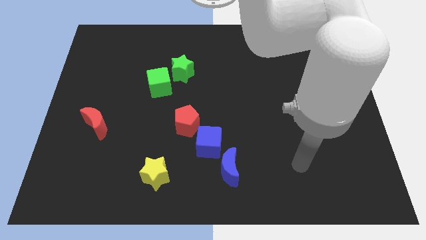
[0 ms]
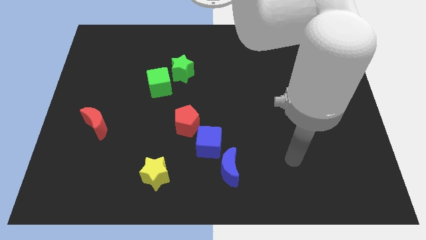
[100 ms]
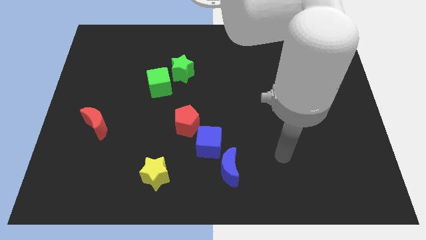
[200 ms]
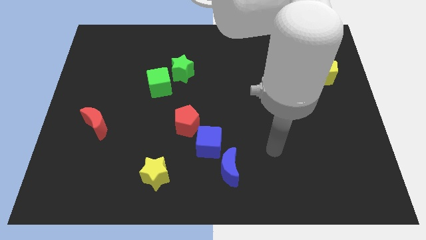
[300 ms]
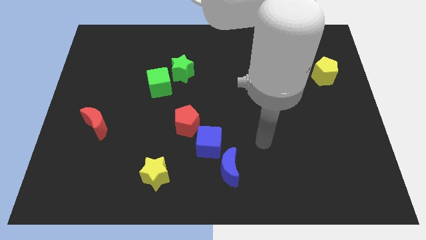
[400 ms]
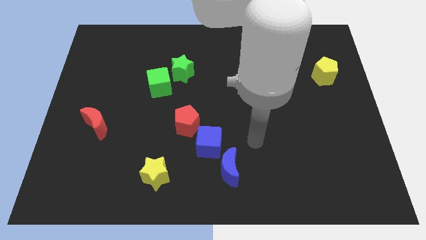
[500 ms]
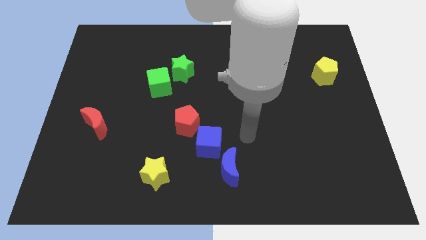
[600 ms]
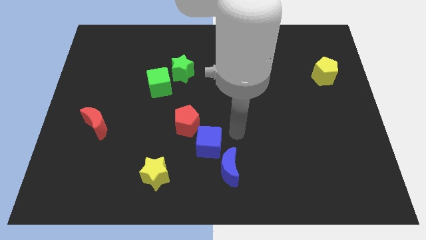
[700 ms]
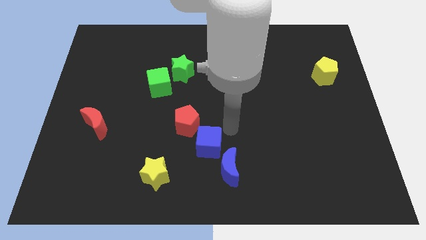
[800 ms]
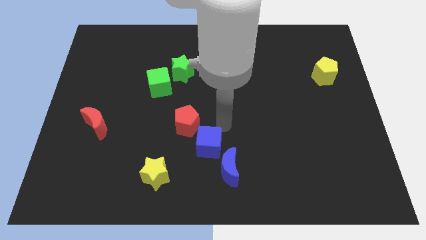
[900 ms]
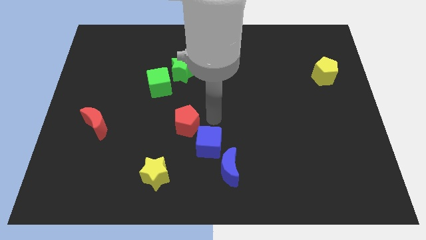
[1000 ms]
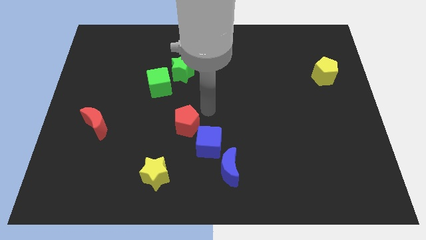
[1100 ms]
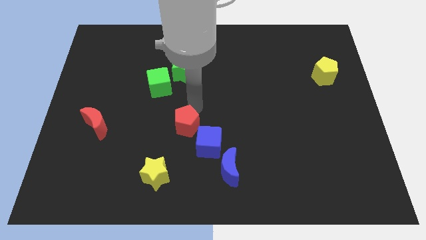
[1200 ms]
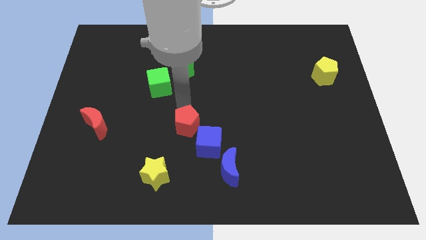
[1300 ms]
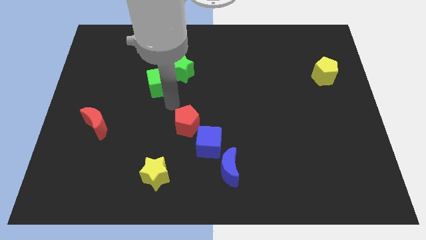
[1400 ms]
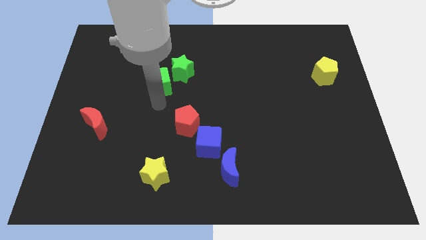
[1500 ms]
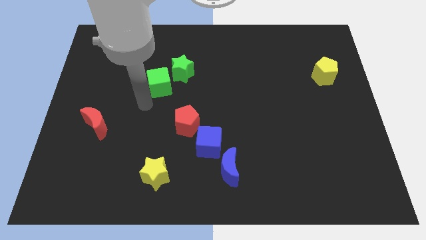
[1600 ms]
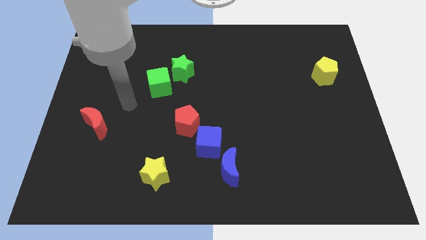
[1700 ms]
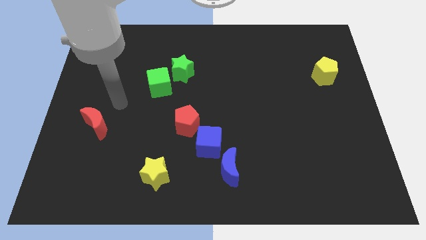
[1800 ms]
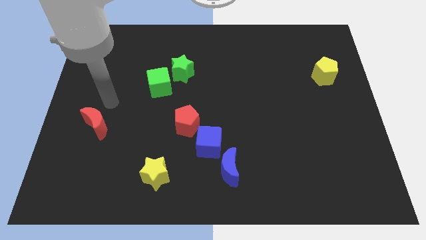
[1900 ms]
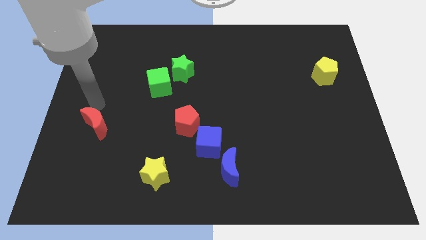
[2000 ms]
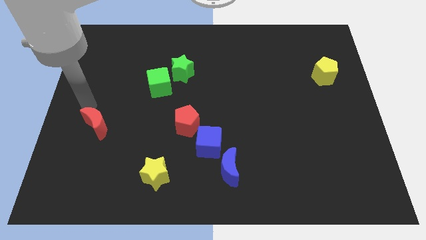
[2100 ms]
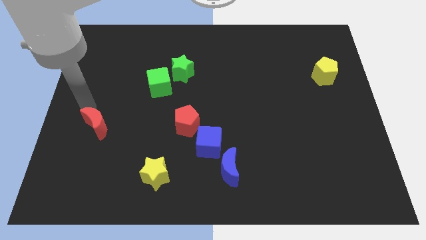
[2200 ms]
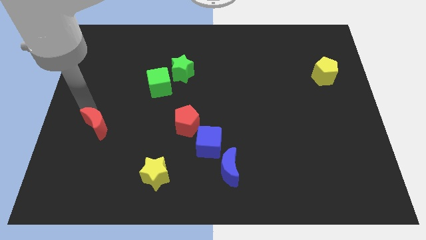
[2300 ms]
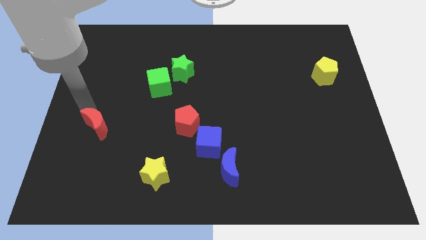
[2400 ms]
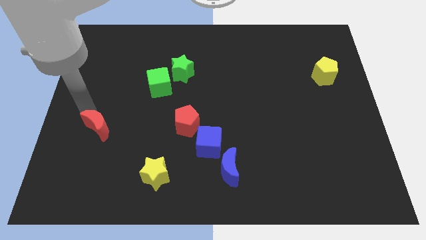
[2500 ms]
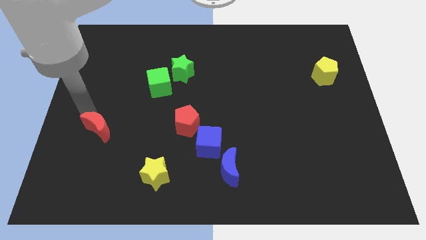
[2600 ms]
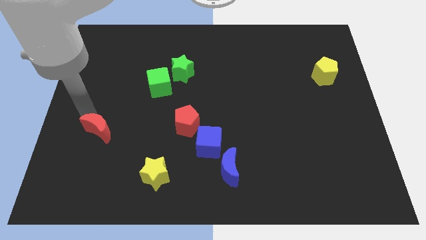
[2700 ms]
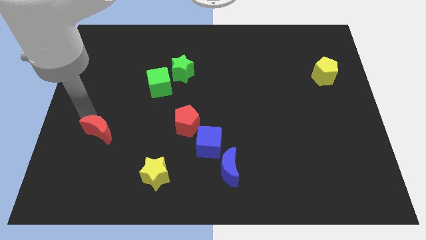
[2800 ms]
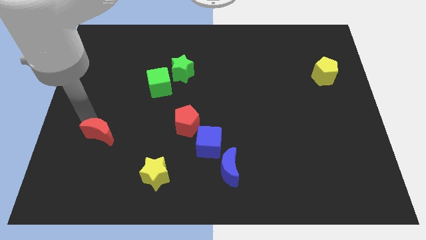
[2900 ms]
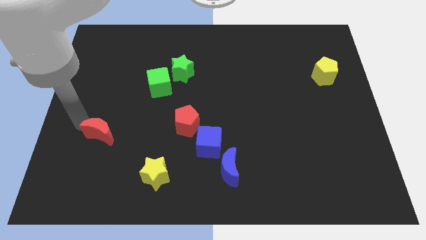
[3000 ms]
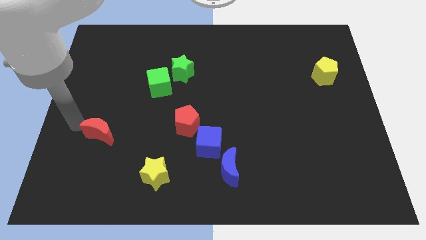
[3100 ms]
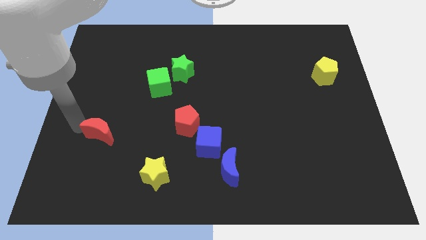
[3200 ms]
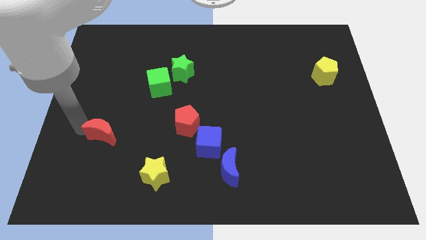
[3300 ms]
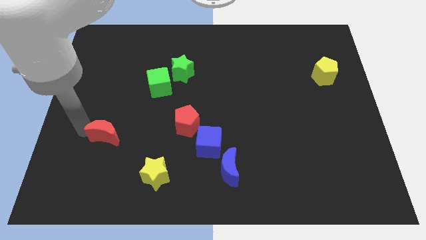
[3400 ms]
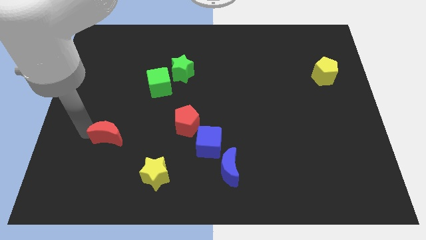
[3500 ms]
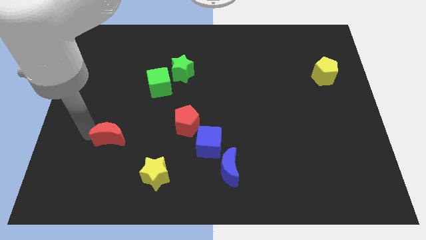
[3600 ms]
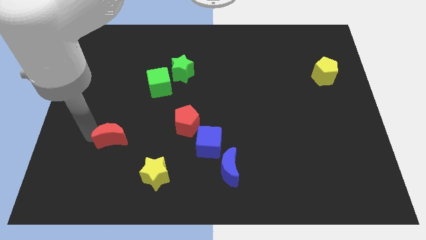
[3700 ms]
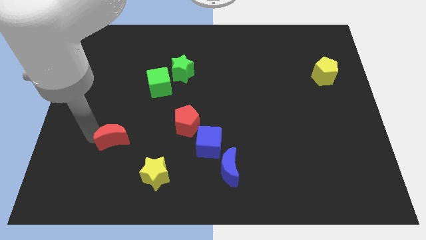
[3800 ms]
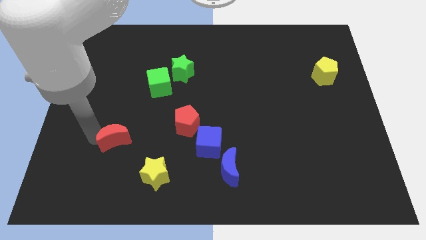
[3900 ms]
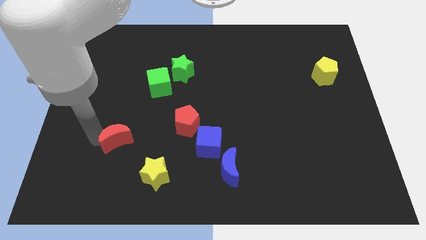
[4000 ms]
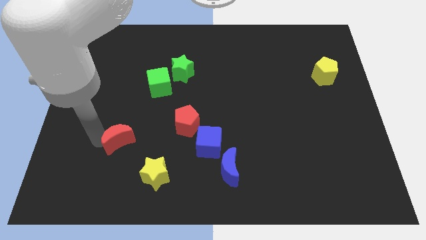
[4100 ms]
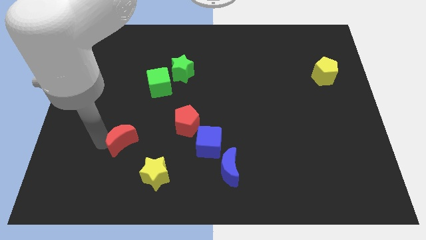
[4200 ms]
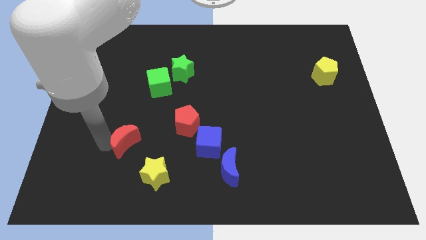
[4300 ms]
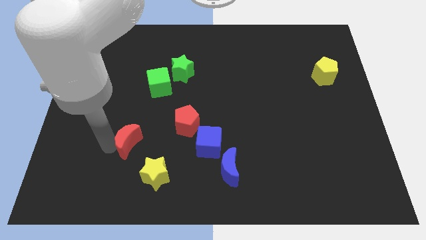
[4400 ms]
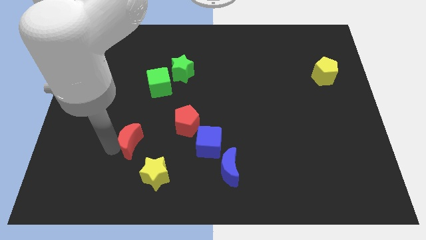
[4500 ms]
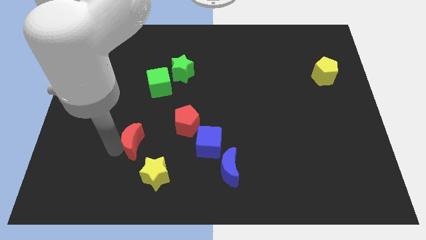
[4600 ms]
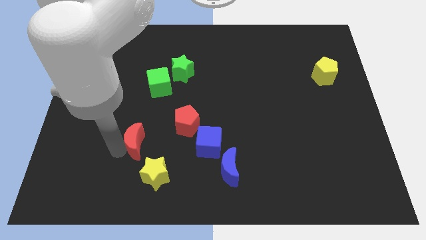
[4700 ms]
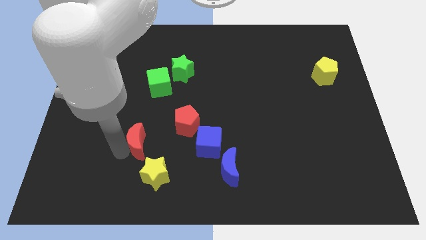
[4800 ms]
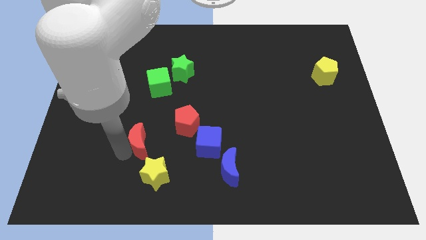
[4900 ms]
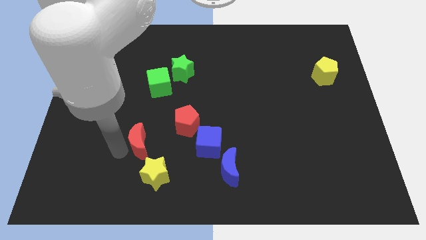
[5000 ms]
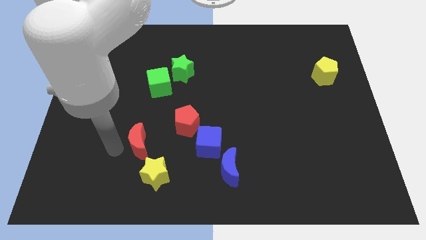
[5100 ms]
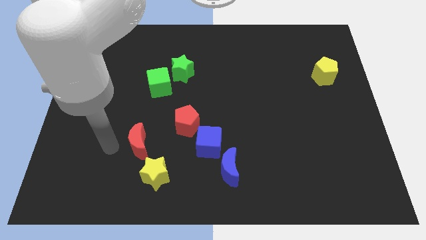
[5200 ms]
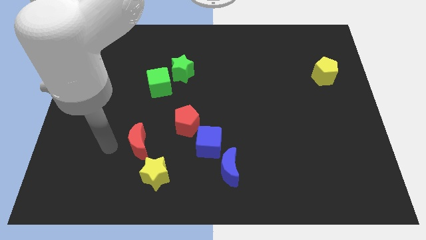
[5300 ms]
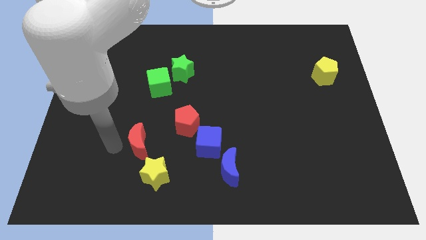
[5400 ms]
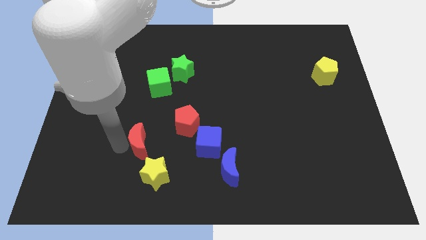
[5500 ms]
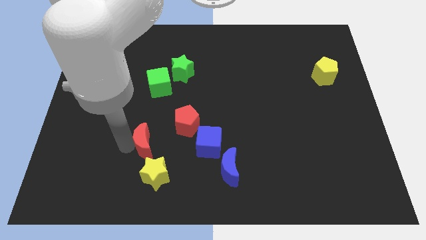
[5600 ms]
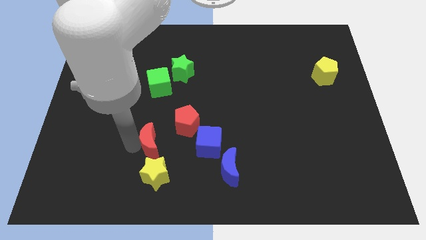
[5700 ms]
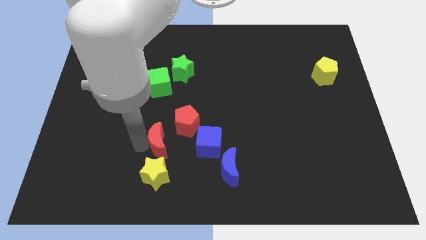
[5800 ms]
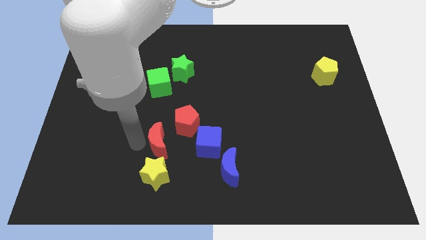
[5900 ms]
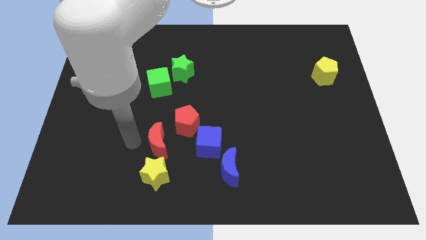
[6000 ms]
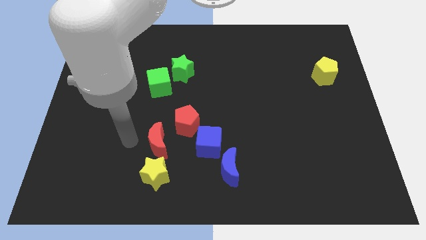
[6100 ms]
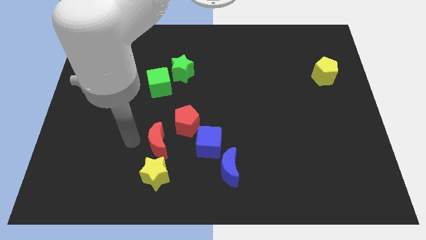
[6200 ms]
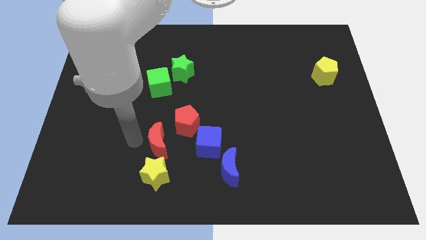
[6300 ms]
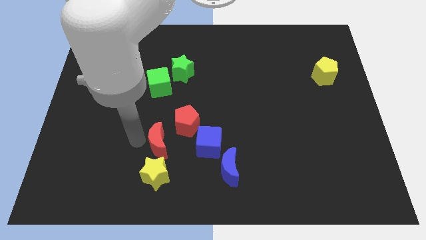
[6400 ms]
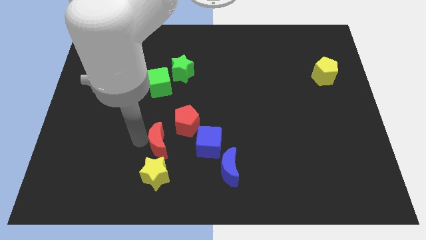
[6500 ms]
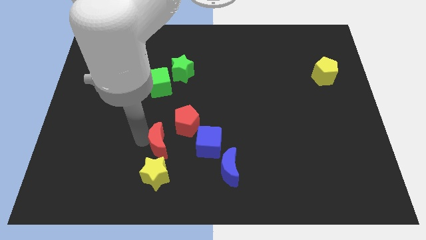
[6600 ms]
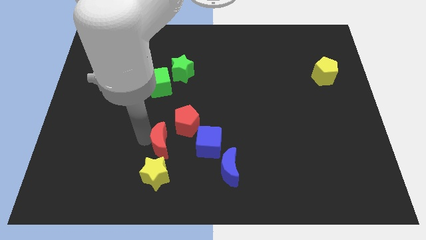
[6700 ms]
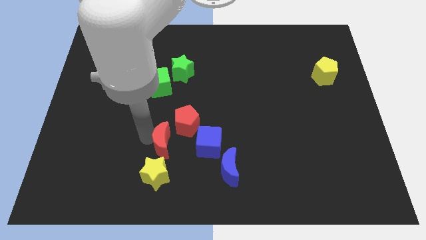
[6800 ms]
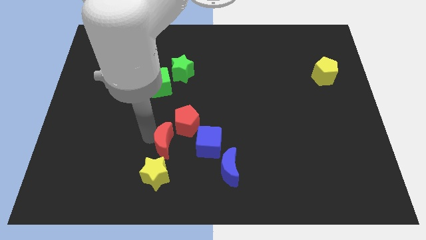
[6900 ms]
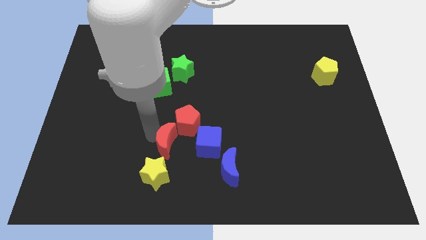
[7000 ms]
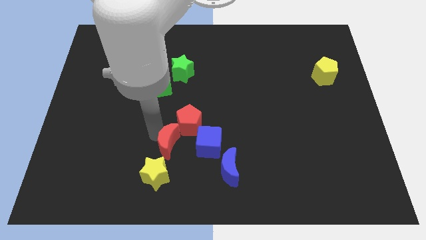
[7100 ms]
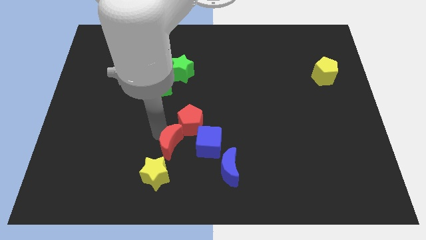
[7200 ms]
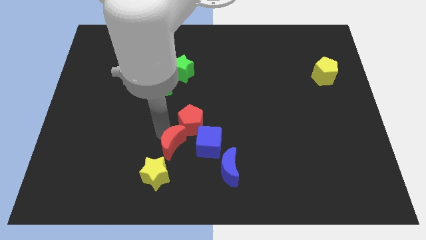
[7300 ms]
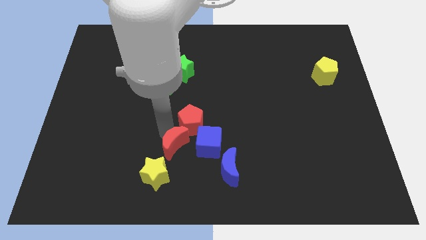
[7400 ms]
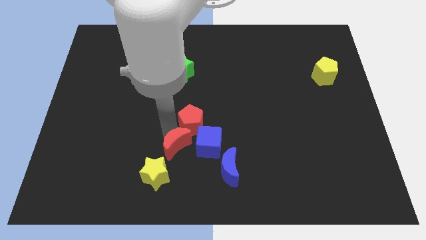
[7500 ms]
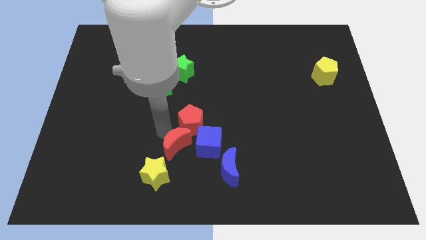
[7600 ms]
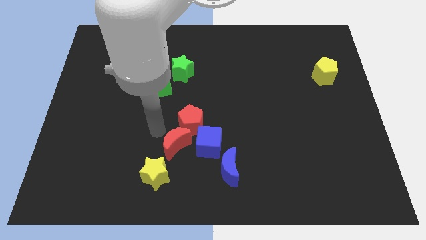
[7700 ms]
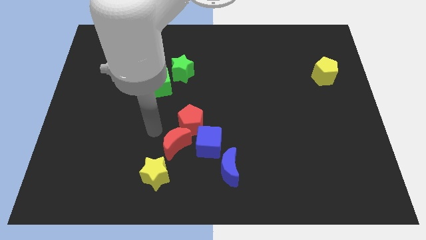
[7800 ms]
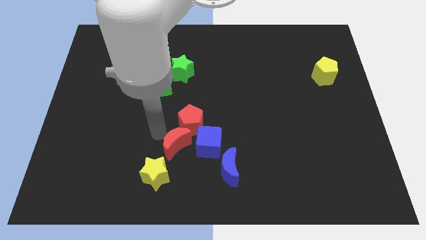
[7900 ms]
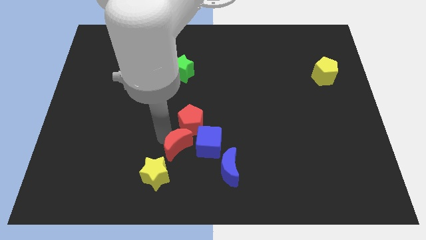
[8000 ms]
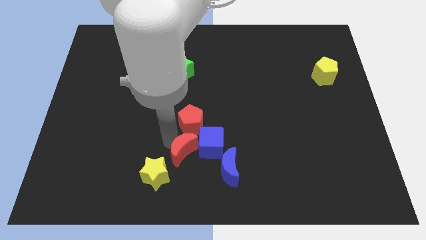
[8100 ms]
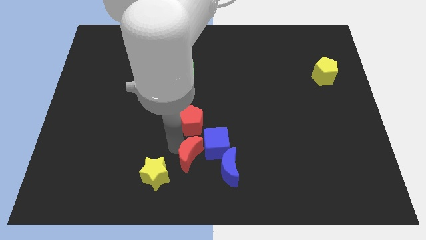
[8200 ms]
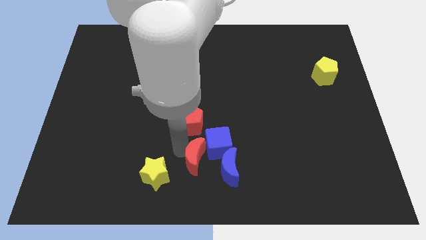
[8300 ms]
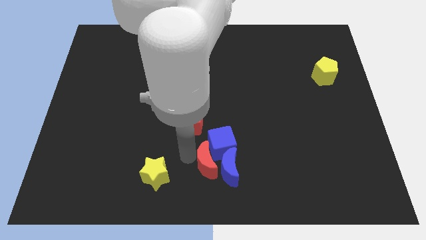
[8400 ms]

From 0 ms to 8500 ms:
slide the red moon close to the blue moon
